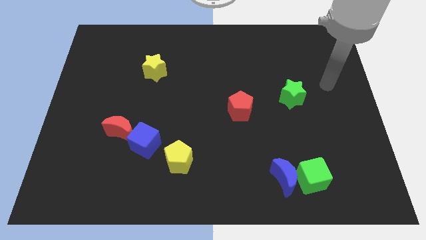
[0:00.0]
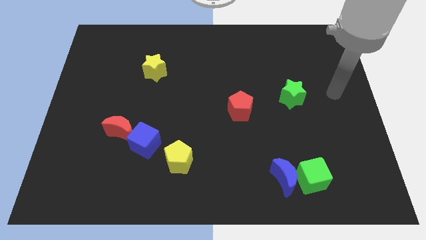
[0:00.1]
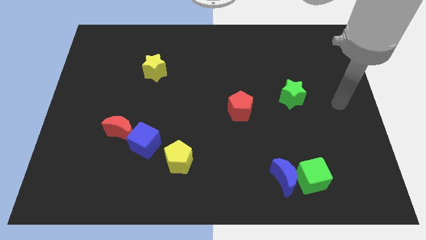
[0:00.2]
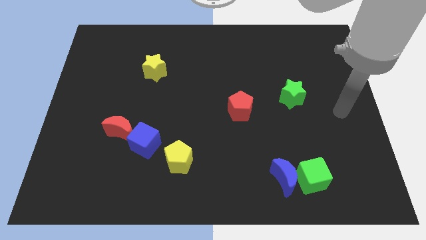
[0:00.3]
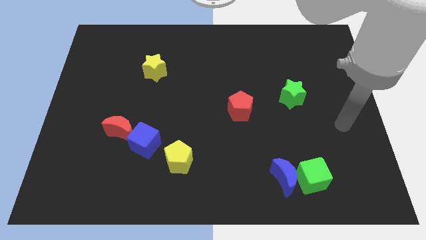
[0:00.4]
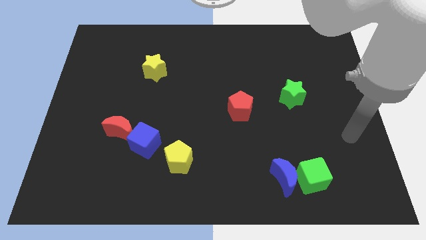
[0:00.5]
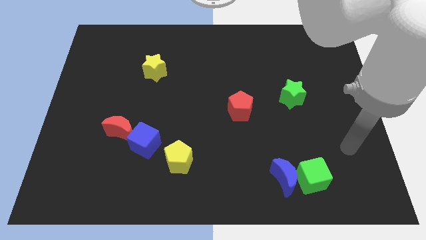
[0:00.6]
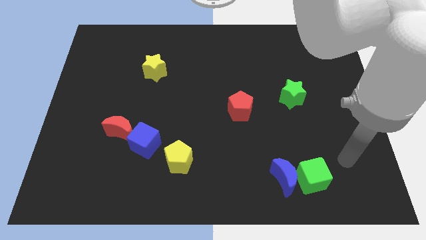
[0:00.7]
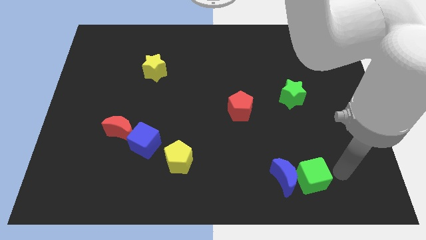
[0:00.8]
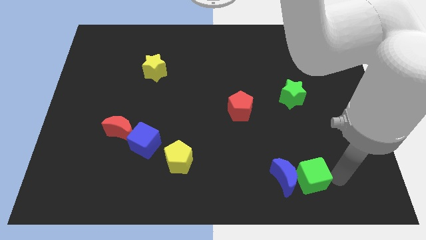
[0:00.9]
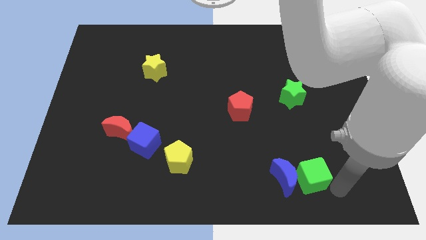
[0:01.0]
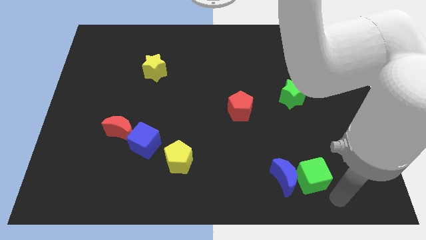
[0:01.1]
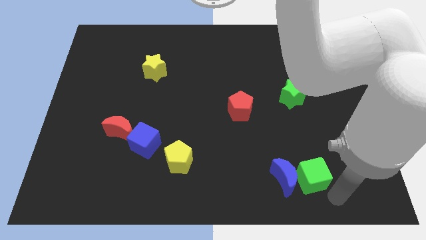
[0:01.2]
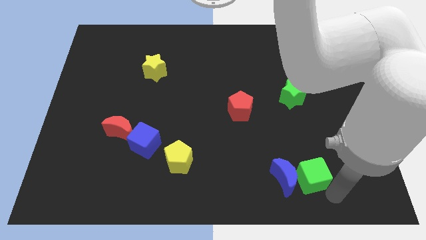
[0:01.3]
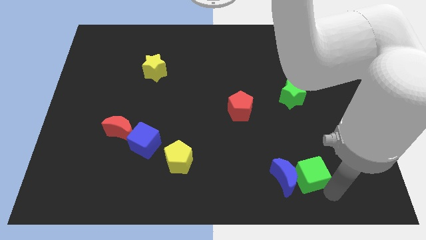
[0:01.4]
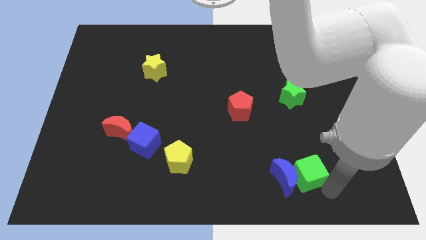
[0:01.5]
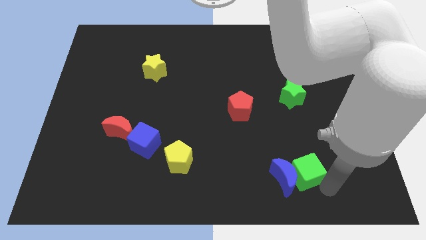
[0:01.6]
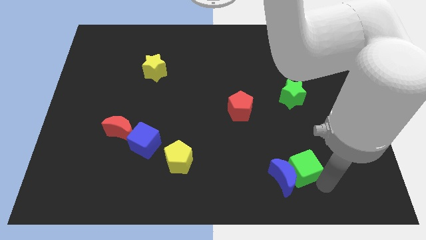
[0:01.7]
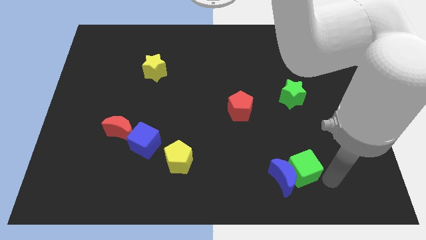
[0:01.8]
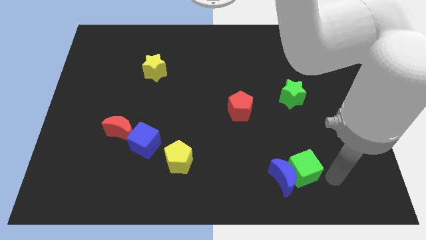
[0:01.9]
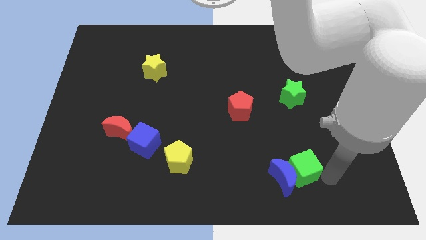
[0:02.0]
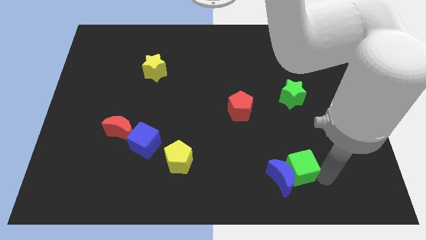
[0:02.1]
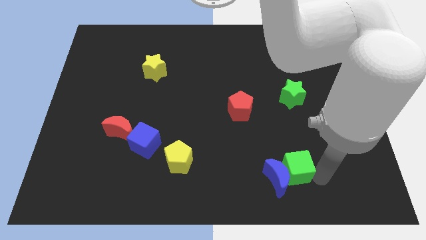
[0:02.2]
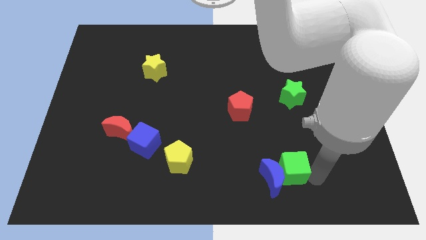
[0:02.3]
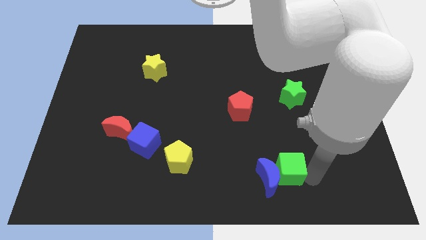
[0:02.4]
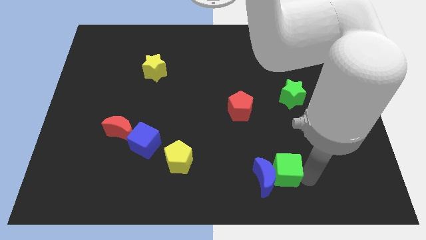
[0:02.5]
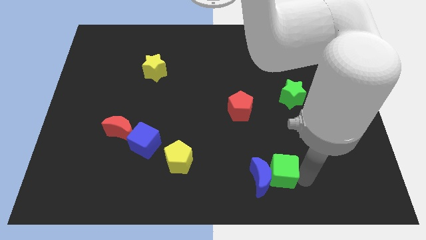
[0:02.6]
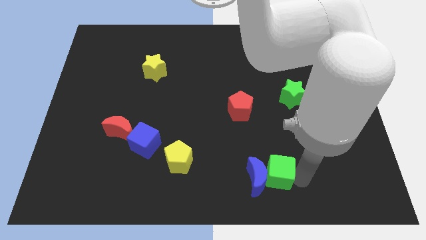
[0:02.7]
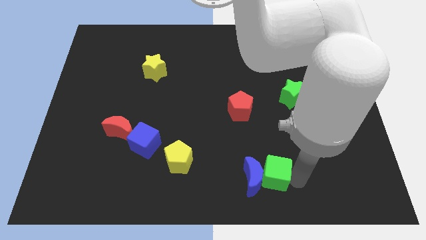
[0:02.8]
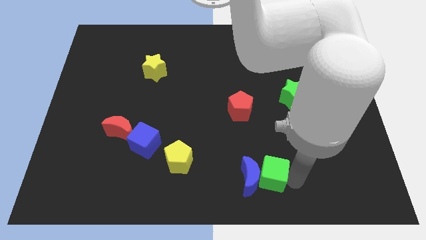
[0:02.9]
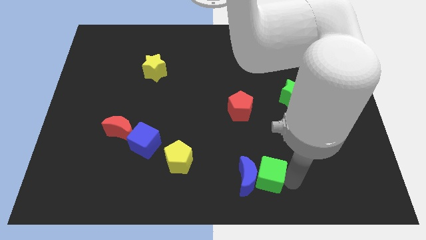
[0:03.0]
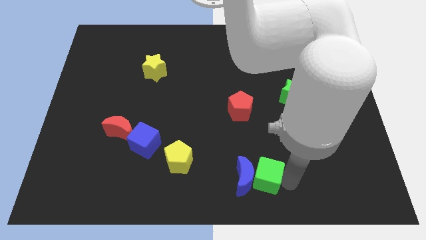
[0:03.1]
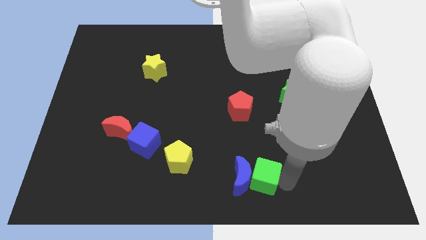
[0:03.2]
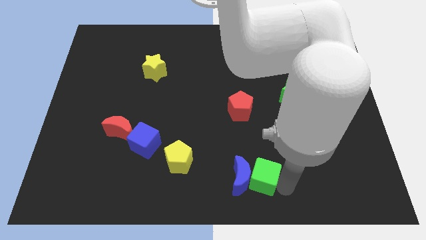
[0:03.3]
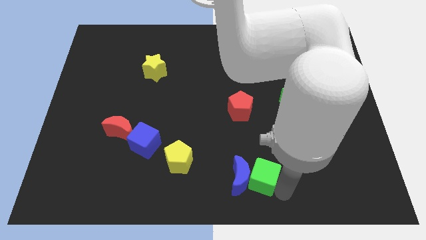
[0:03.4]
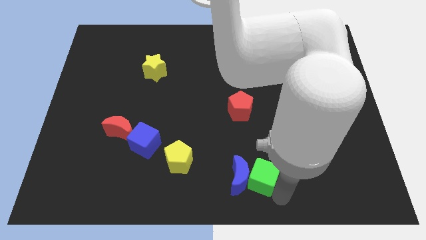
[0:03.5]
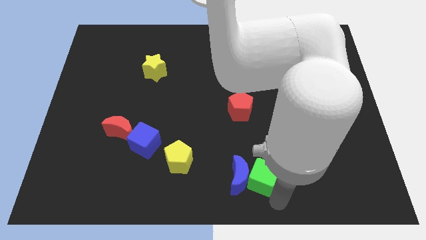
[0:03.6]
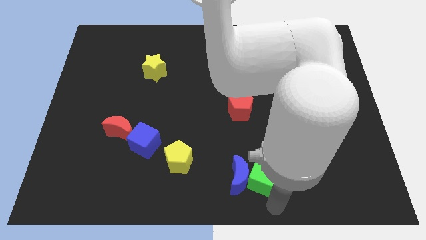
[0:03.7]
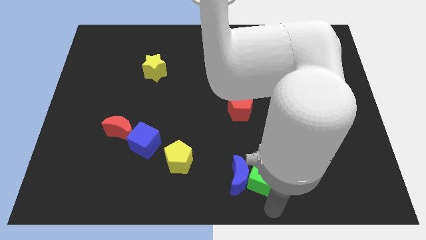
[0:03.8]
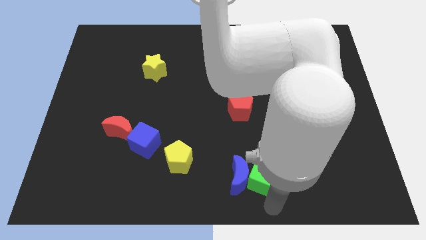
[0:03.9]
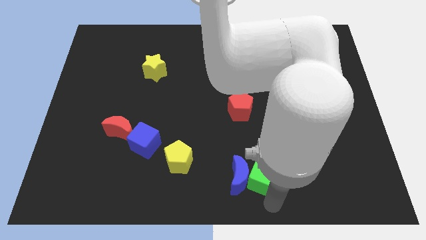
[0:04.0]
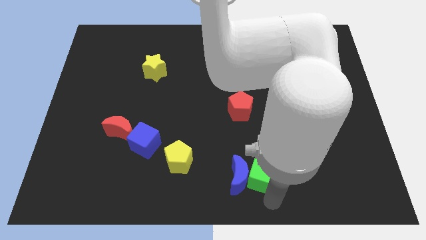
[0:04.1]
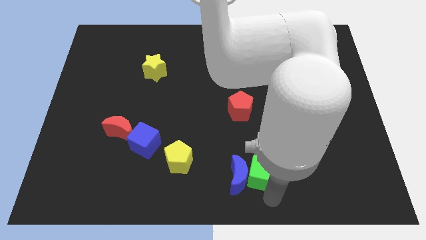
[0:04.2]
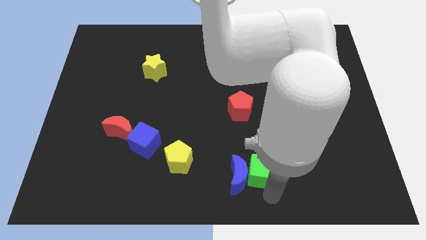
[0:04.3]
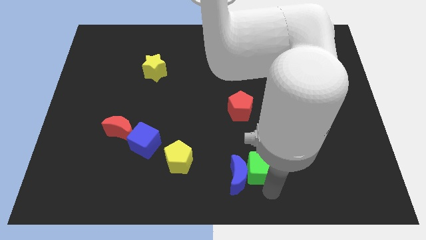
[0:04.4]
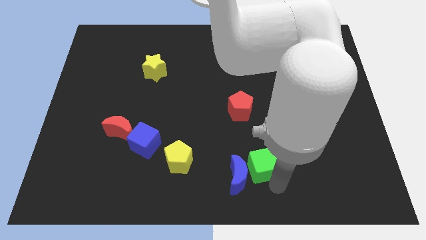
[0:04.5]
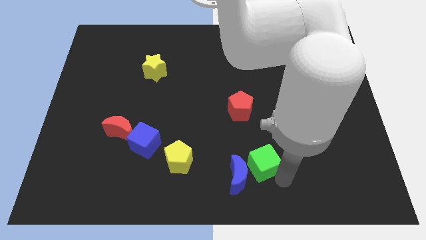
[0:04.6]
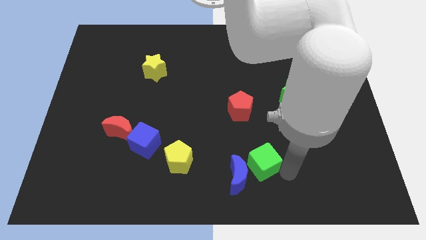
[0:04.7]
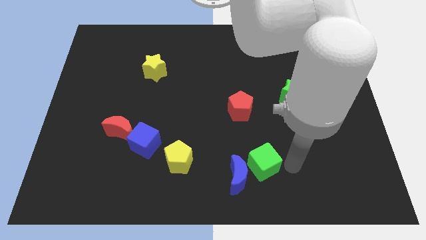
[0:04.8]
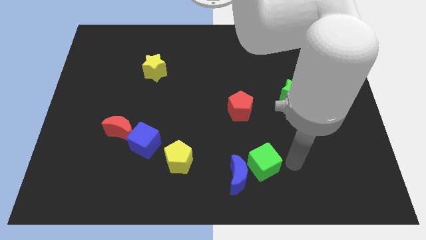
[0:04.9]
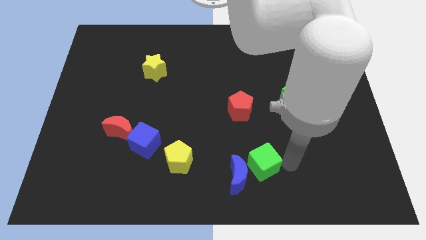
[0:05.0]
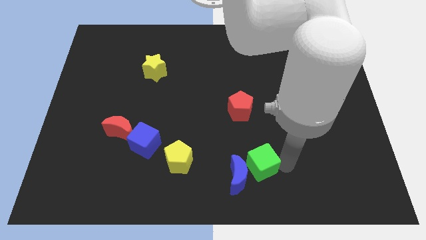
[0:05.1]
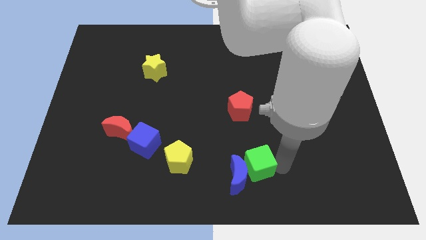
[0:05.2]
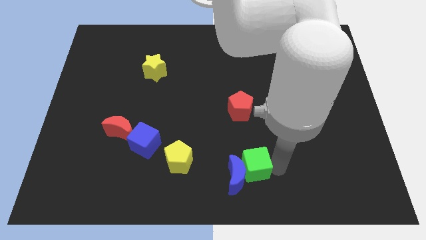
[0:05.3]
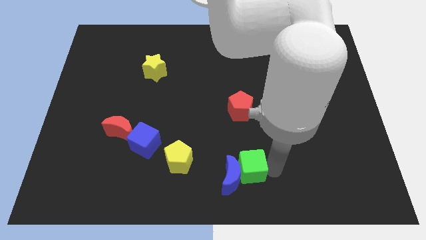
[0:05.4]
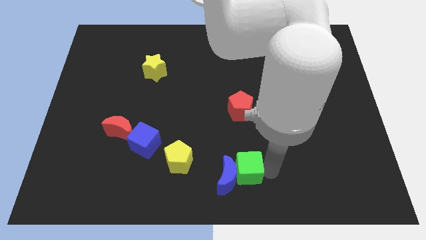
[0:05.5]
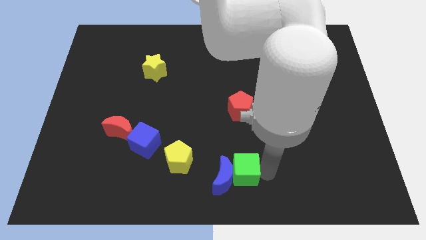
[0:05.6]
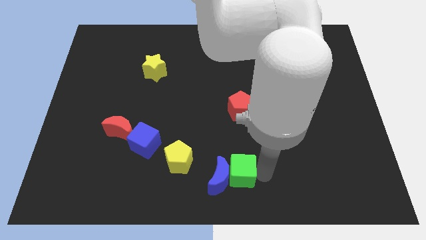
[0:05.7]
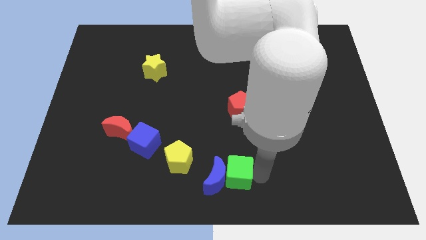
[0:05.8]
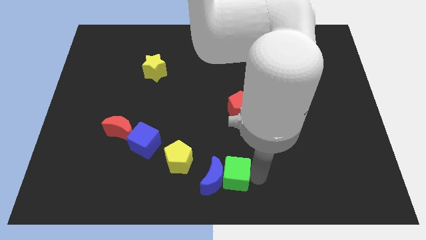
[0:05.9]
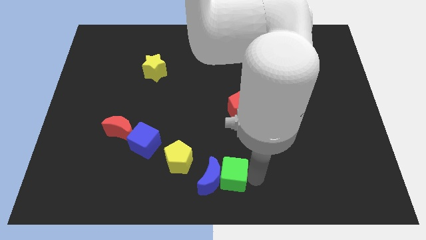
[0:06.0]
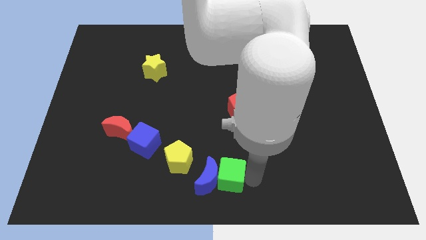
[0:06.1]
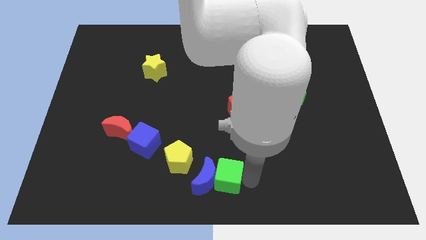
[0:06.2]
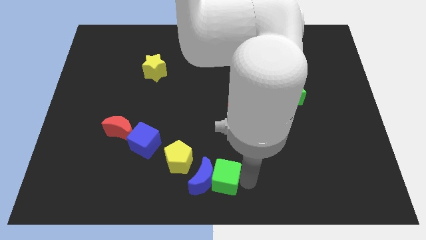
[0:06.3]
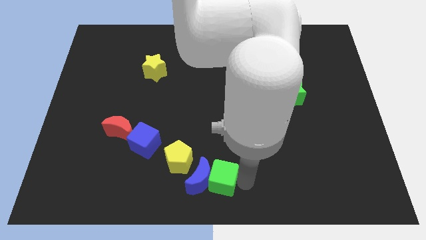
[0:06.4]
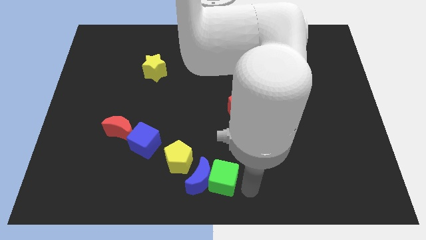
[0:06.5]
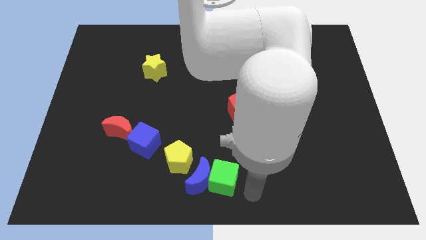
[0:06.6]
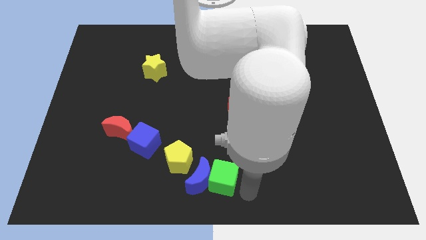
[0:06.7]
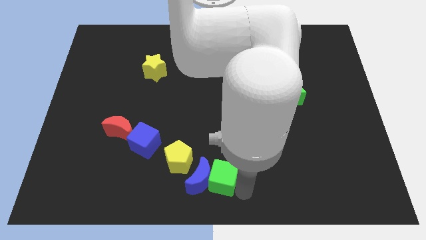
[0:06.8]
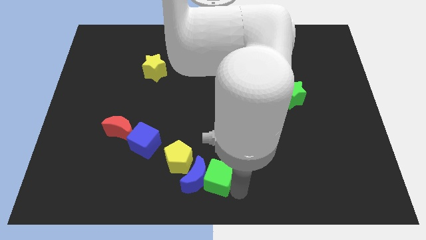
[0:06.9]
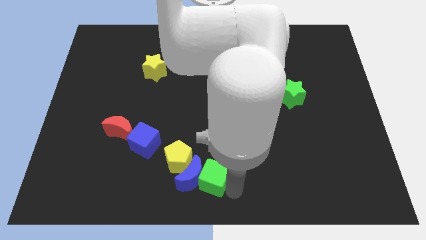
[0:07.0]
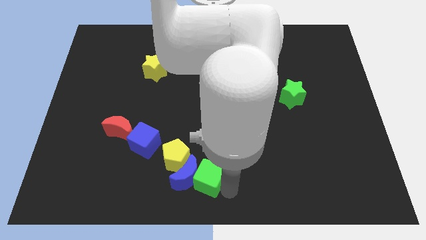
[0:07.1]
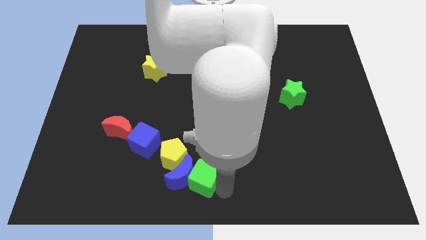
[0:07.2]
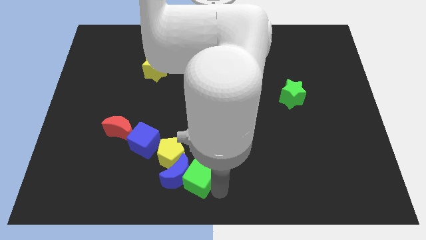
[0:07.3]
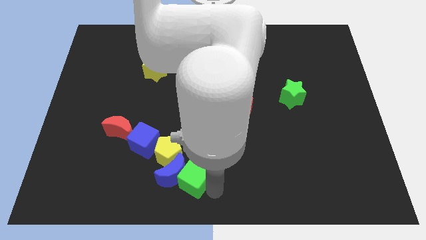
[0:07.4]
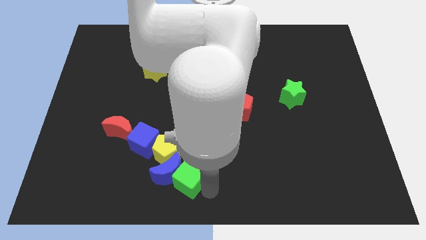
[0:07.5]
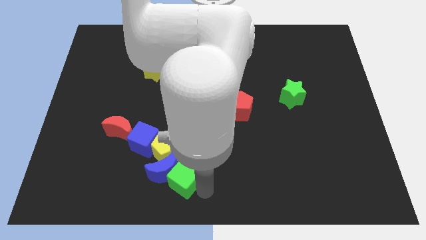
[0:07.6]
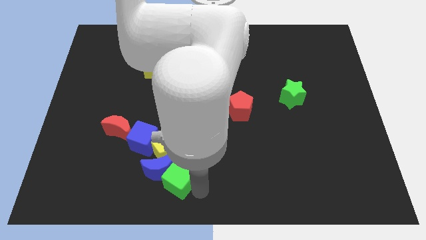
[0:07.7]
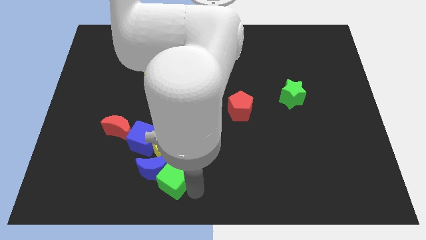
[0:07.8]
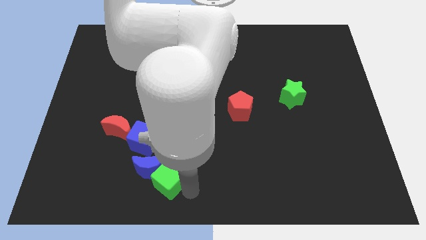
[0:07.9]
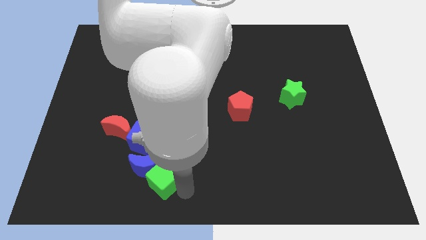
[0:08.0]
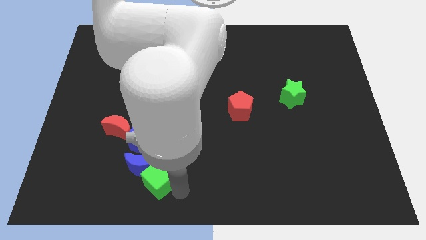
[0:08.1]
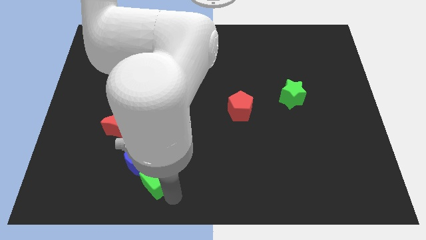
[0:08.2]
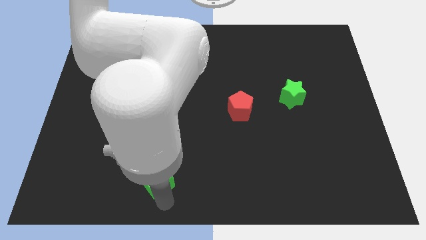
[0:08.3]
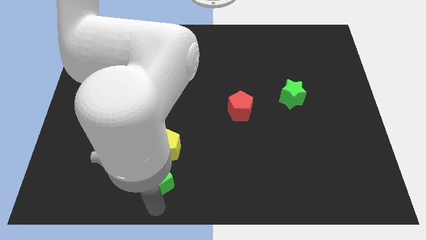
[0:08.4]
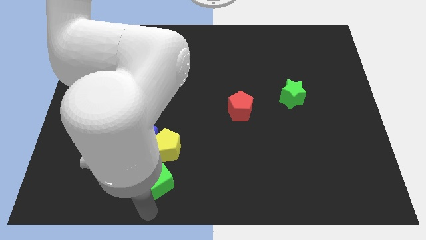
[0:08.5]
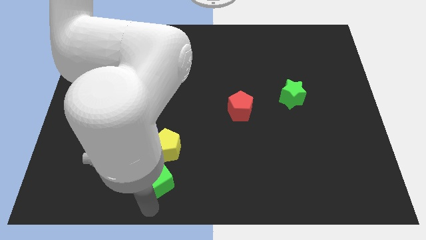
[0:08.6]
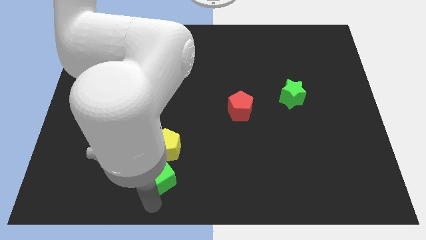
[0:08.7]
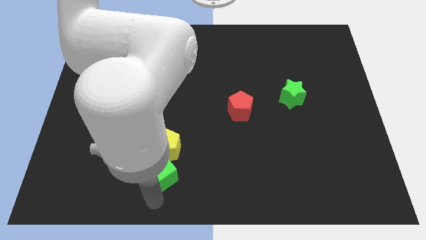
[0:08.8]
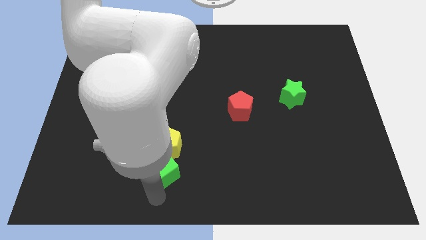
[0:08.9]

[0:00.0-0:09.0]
put the green cube next to the yellow pentagon
